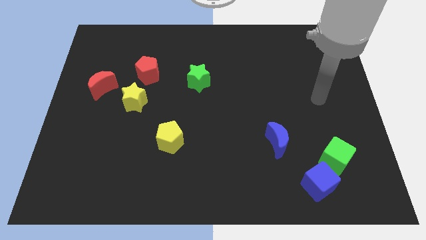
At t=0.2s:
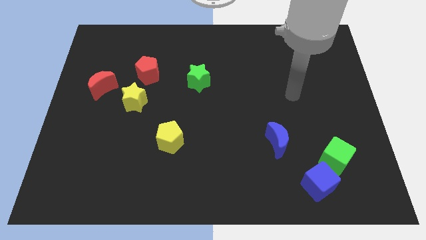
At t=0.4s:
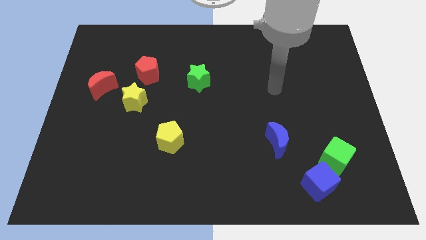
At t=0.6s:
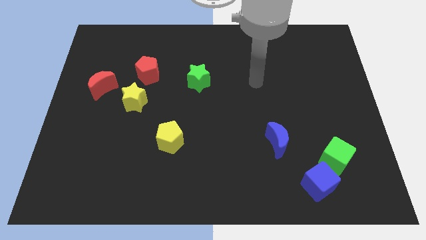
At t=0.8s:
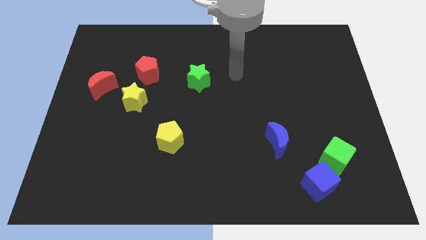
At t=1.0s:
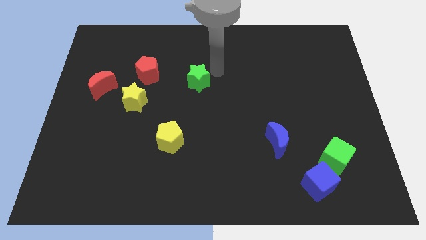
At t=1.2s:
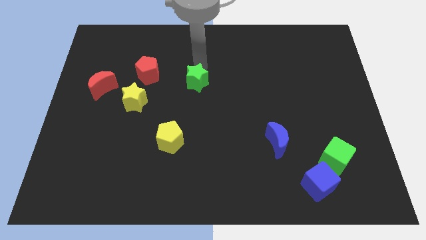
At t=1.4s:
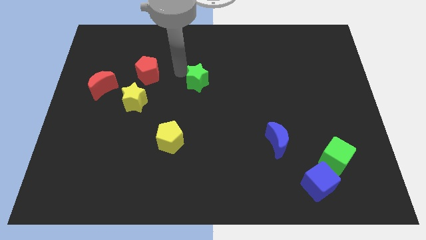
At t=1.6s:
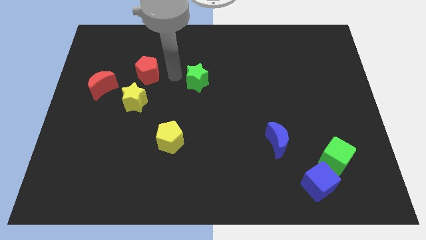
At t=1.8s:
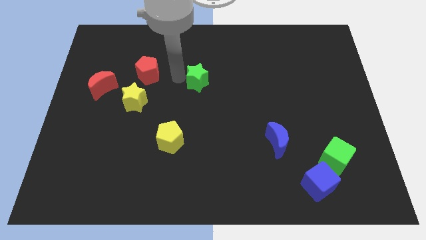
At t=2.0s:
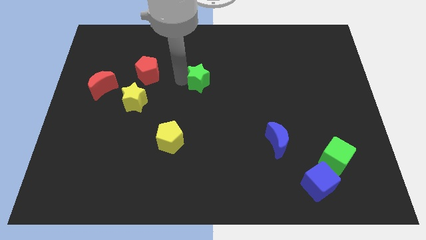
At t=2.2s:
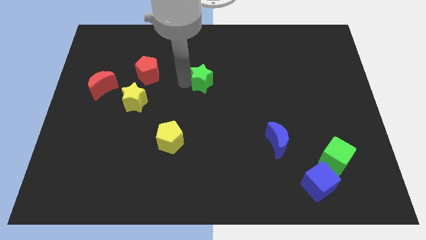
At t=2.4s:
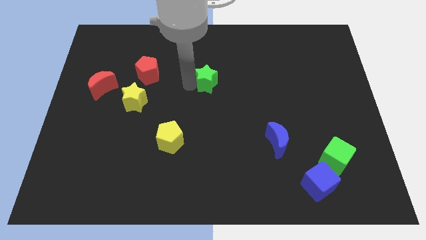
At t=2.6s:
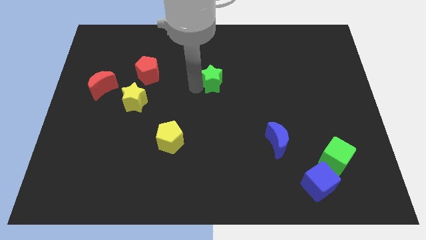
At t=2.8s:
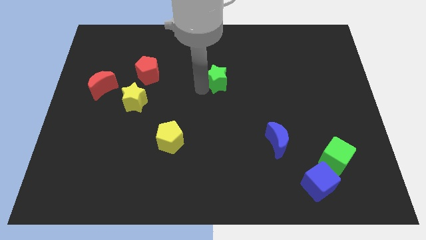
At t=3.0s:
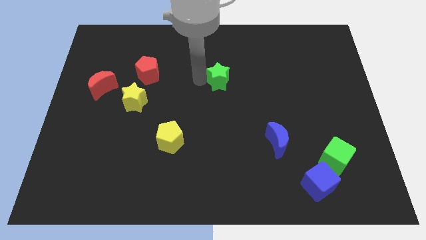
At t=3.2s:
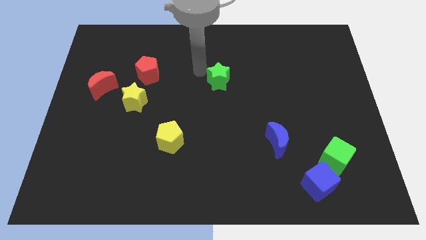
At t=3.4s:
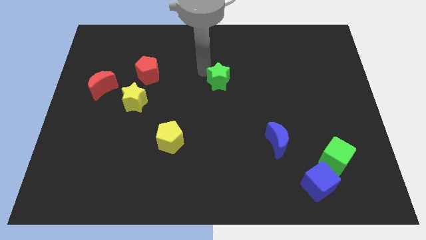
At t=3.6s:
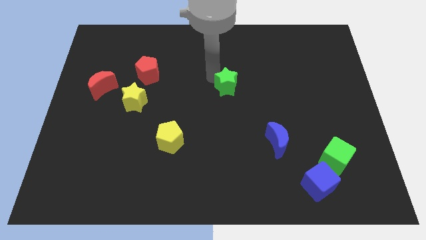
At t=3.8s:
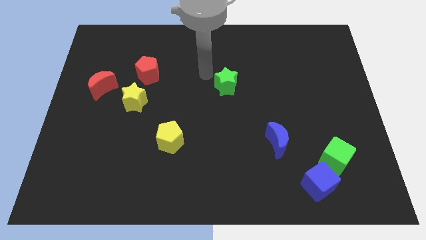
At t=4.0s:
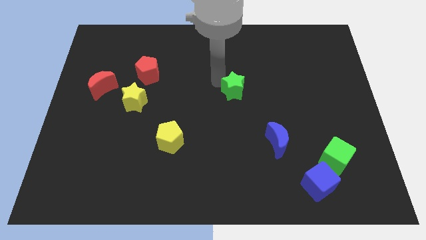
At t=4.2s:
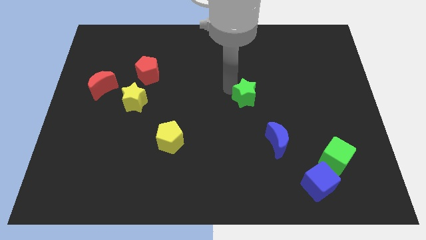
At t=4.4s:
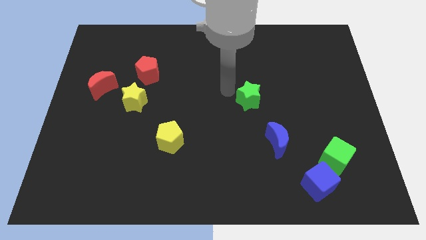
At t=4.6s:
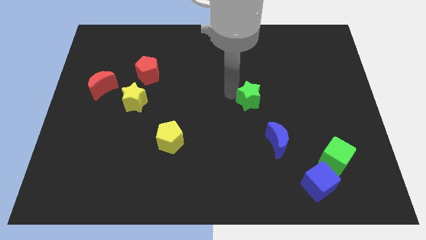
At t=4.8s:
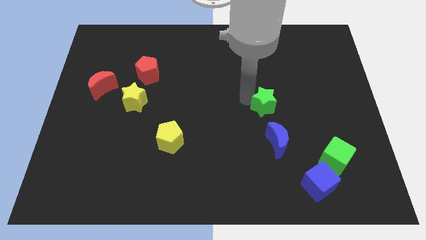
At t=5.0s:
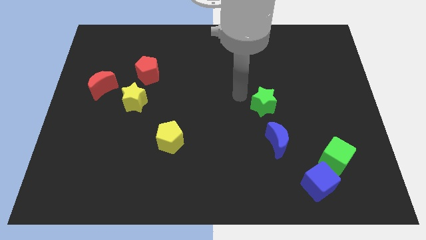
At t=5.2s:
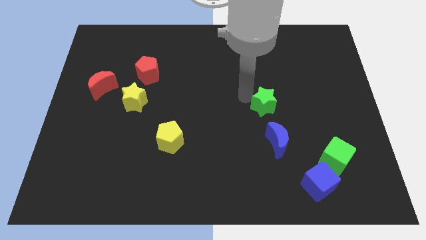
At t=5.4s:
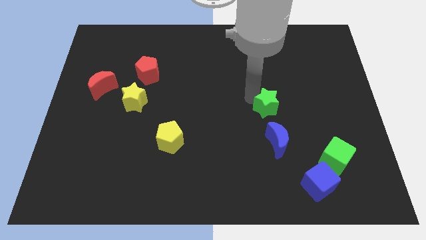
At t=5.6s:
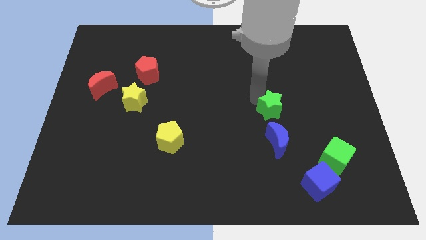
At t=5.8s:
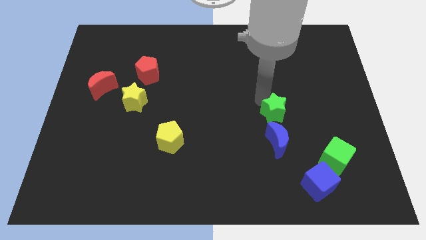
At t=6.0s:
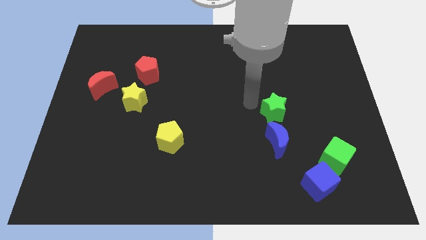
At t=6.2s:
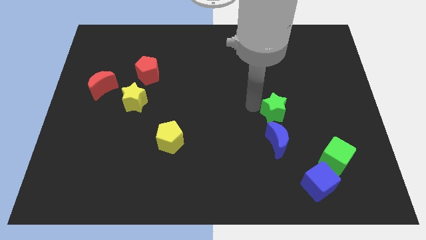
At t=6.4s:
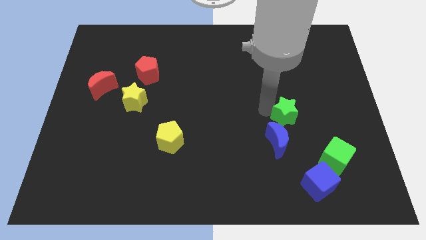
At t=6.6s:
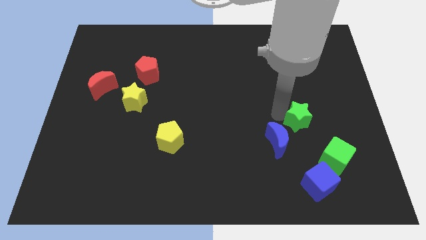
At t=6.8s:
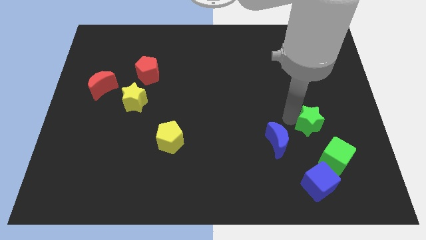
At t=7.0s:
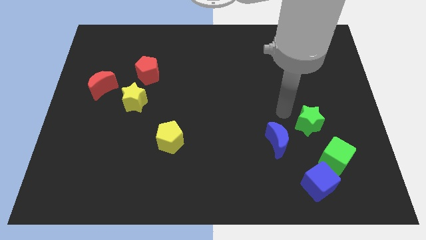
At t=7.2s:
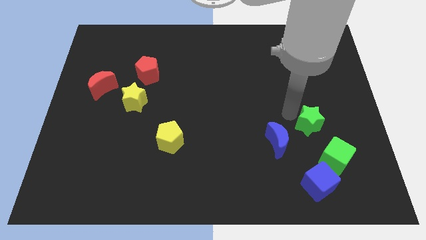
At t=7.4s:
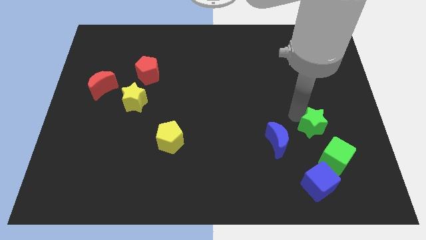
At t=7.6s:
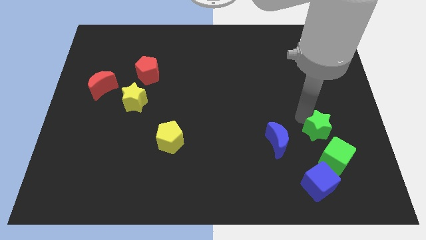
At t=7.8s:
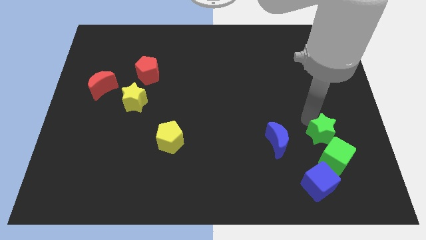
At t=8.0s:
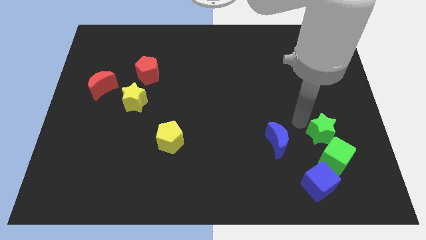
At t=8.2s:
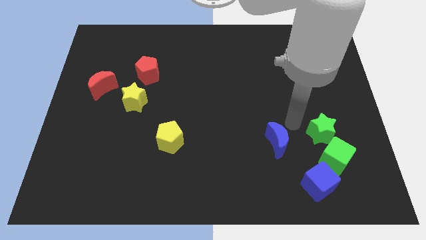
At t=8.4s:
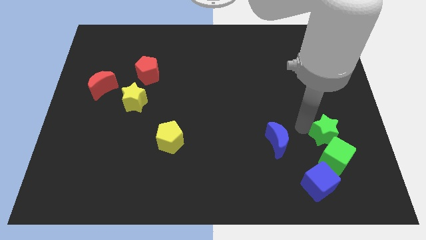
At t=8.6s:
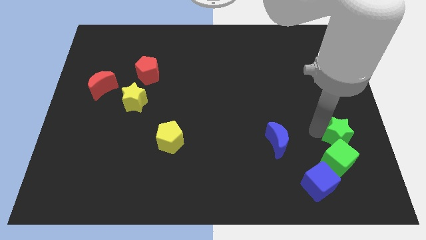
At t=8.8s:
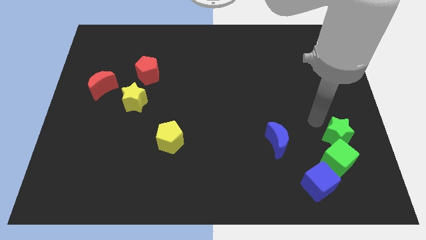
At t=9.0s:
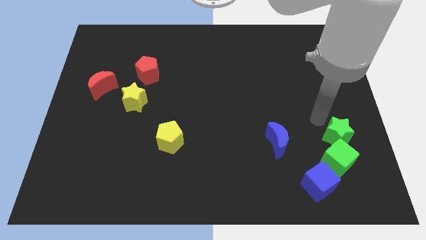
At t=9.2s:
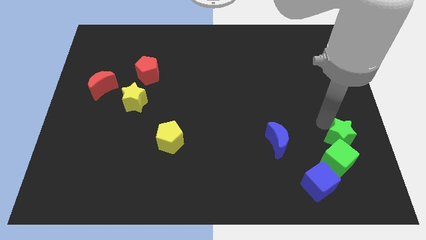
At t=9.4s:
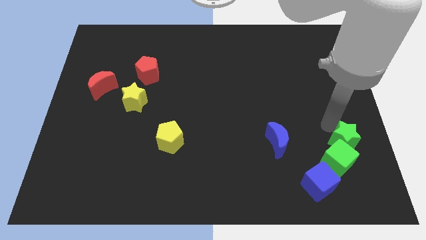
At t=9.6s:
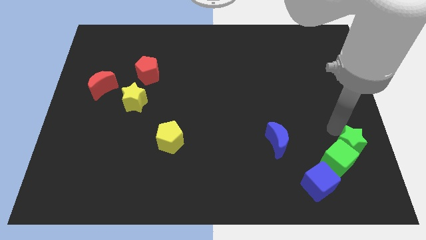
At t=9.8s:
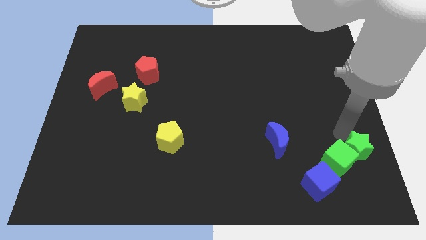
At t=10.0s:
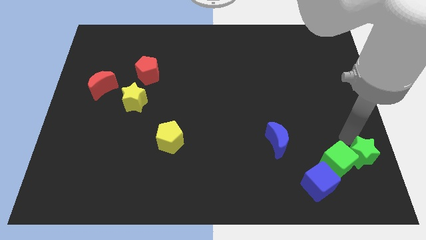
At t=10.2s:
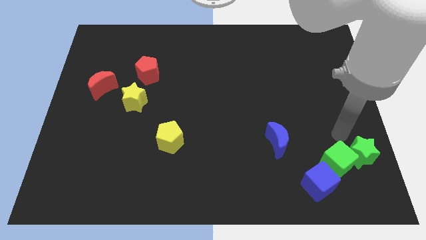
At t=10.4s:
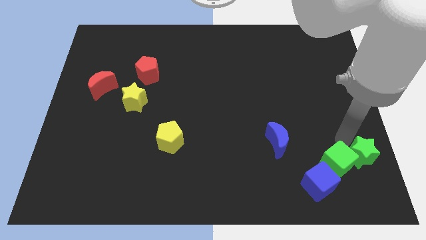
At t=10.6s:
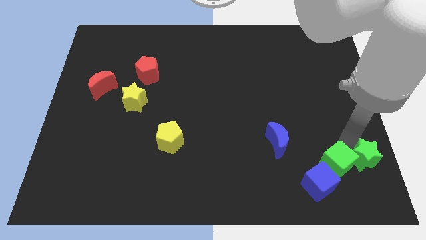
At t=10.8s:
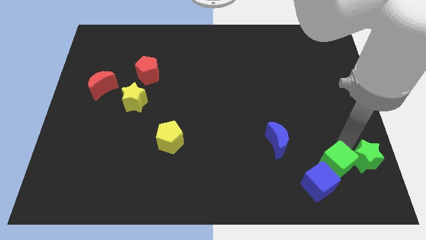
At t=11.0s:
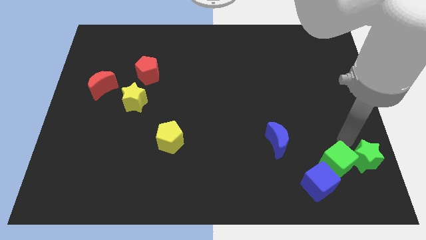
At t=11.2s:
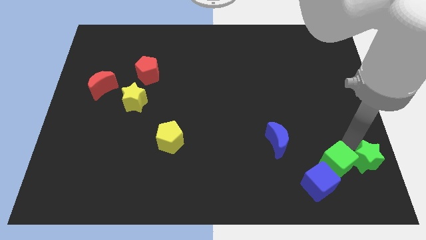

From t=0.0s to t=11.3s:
slide the green star to the lower right corner

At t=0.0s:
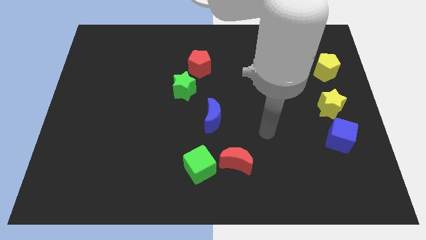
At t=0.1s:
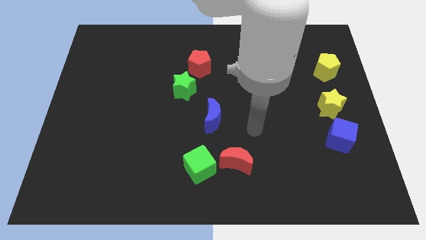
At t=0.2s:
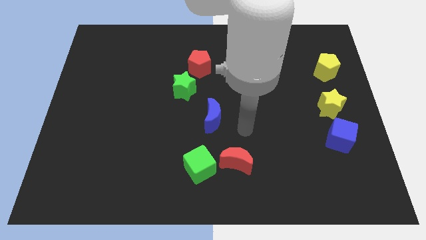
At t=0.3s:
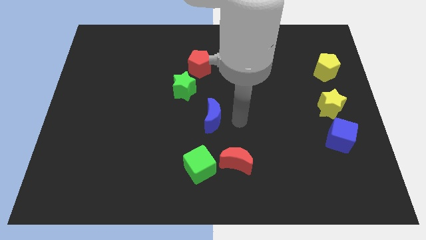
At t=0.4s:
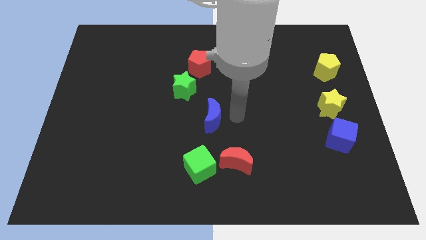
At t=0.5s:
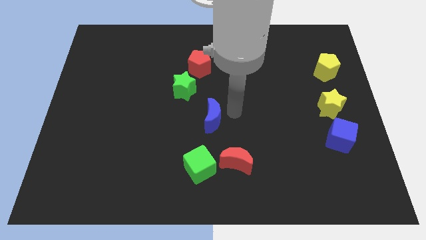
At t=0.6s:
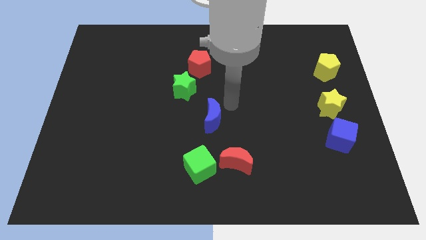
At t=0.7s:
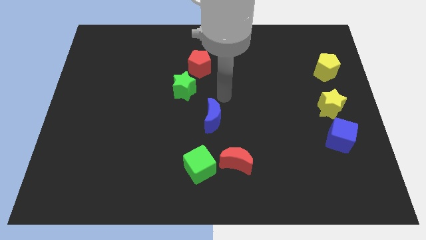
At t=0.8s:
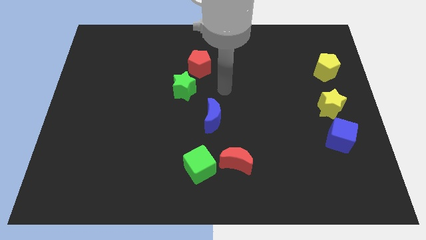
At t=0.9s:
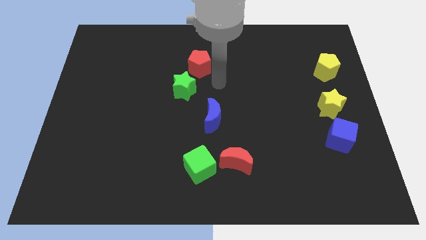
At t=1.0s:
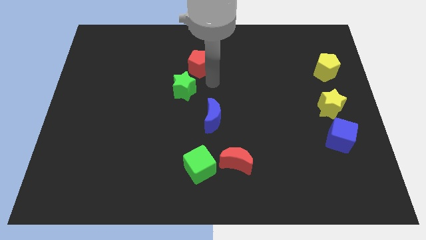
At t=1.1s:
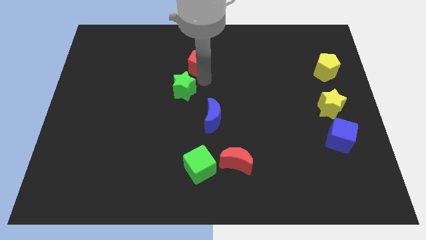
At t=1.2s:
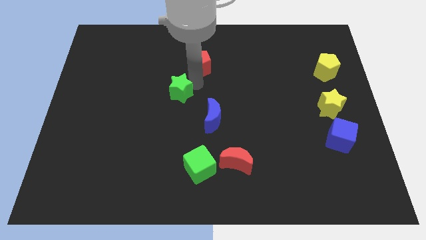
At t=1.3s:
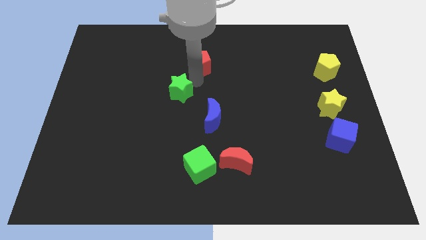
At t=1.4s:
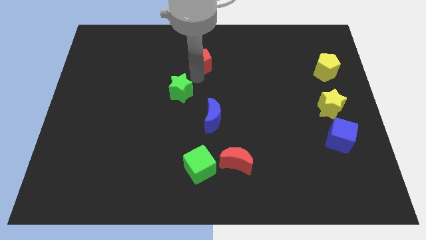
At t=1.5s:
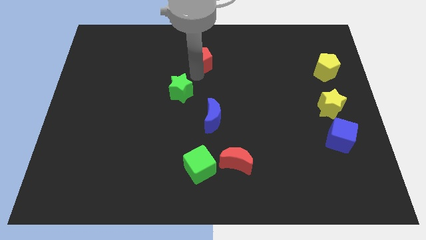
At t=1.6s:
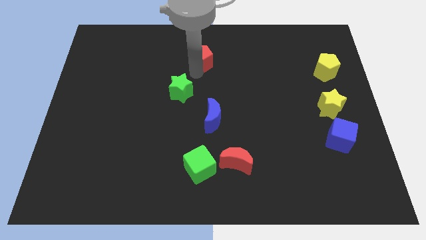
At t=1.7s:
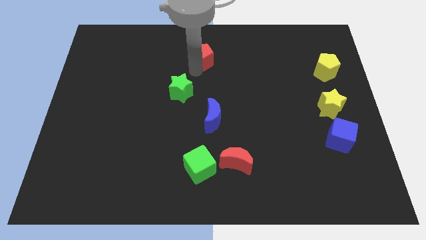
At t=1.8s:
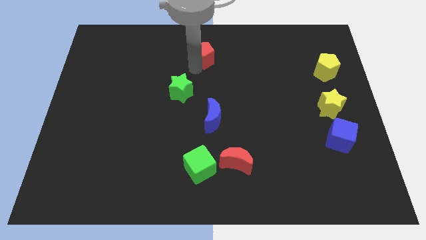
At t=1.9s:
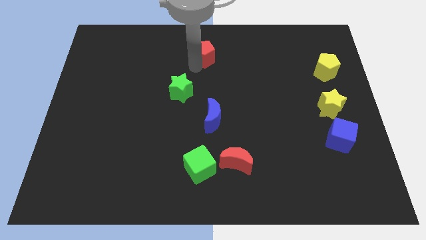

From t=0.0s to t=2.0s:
put the red pentagon to the top side

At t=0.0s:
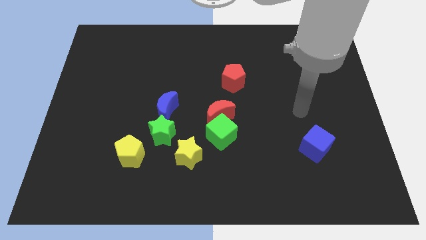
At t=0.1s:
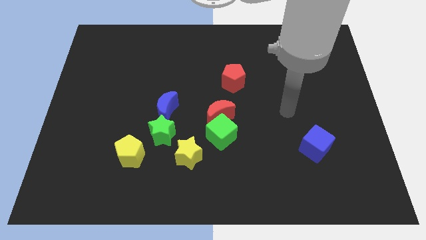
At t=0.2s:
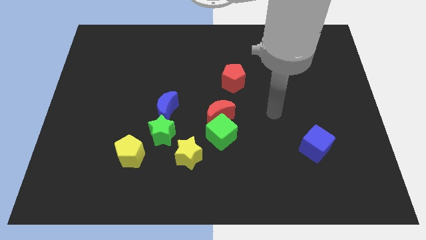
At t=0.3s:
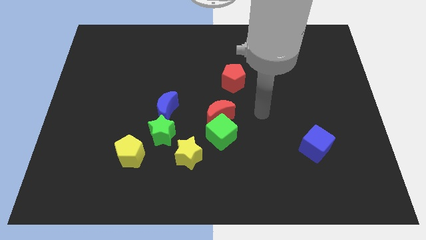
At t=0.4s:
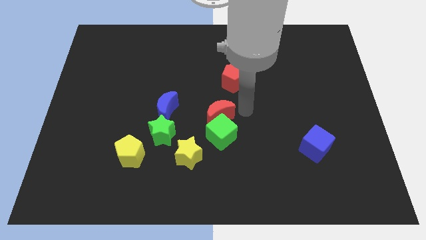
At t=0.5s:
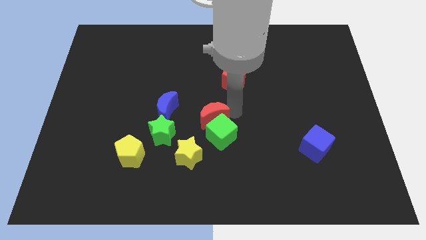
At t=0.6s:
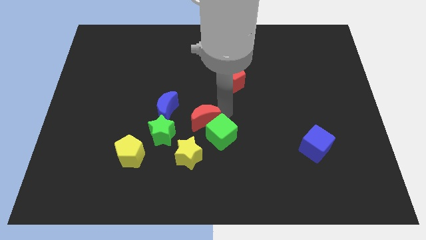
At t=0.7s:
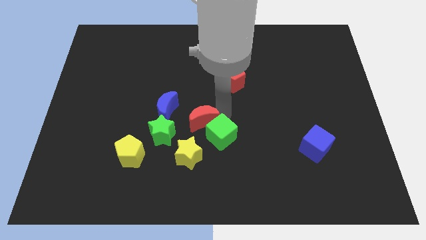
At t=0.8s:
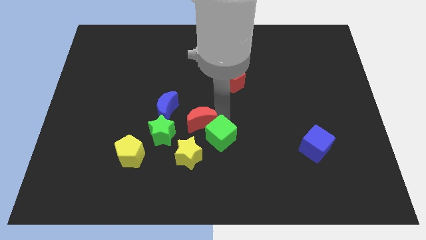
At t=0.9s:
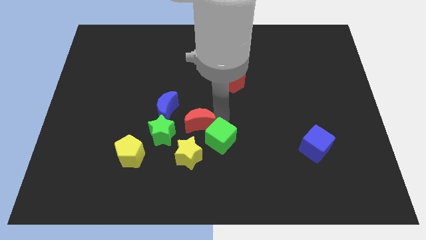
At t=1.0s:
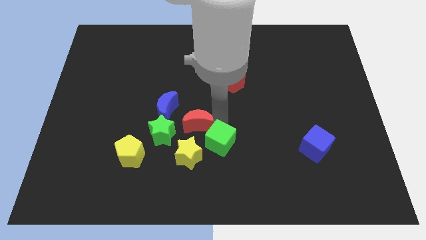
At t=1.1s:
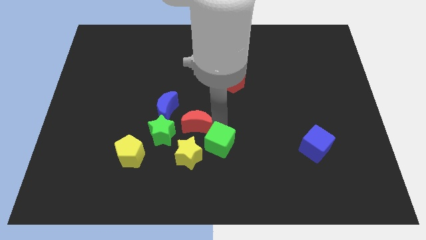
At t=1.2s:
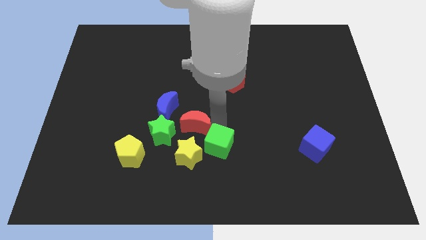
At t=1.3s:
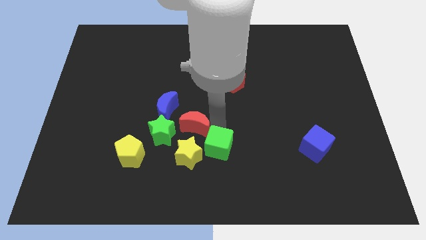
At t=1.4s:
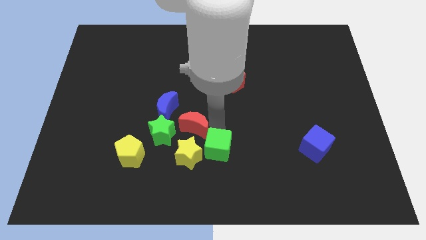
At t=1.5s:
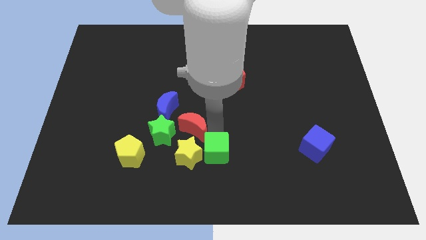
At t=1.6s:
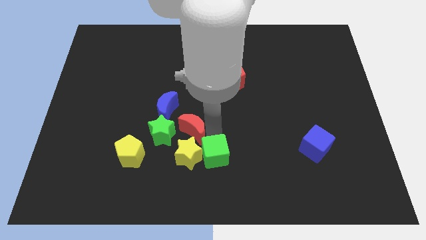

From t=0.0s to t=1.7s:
put the green cube to the bottom side
